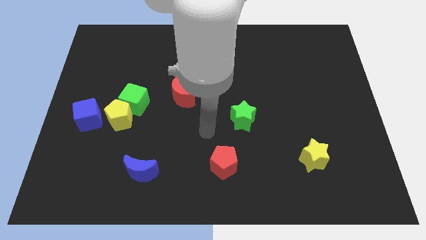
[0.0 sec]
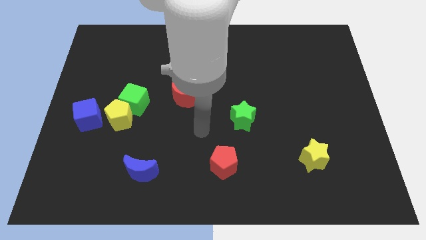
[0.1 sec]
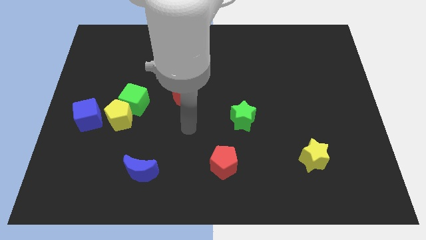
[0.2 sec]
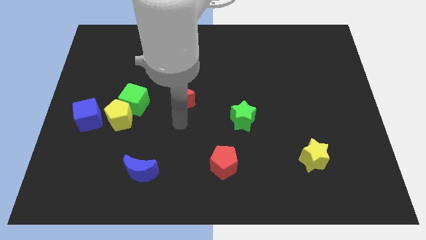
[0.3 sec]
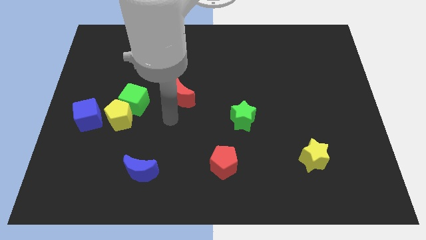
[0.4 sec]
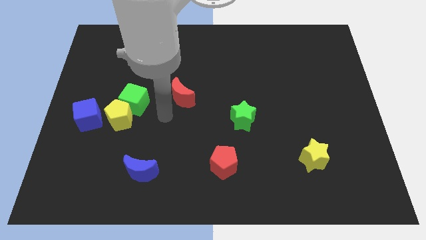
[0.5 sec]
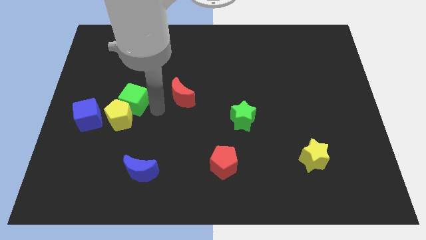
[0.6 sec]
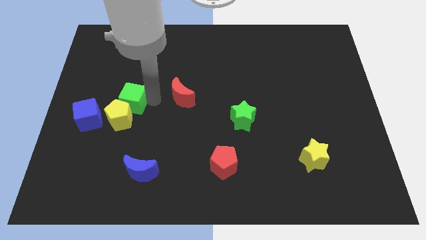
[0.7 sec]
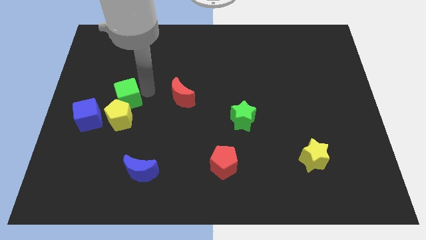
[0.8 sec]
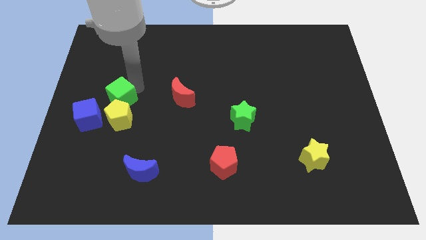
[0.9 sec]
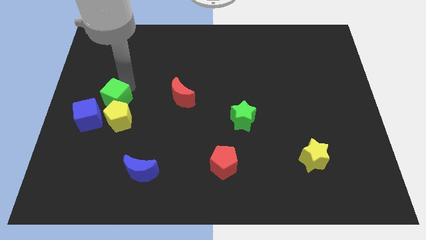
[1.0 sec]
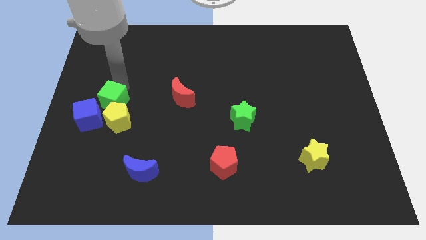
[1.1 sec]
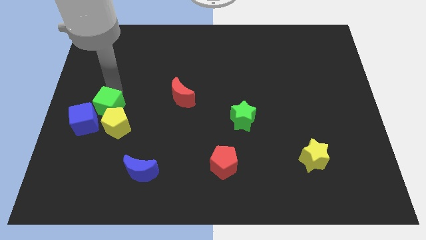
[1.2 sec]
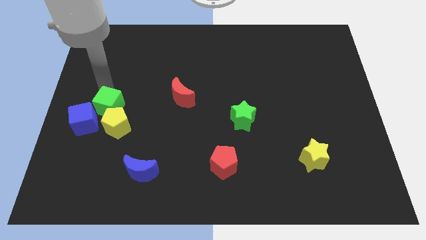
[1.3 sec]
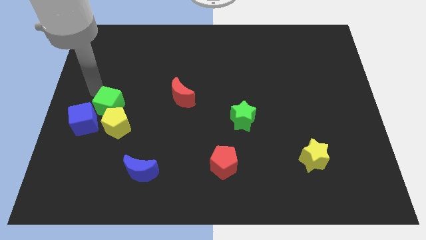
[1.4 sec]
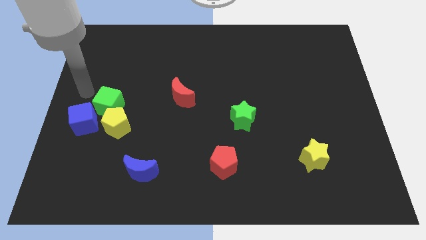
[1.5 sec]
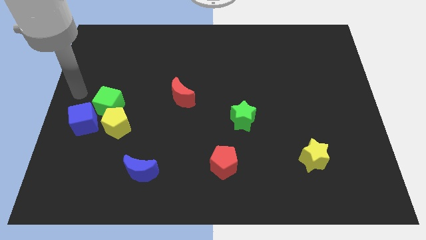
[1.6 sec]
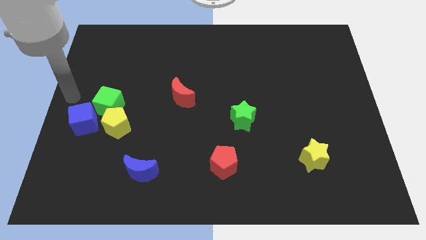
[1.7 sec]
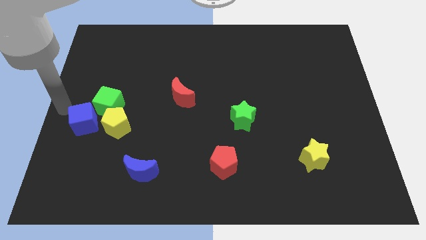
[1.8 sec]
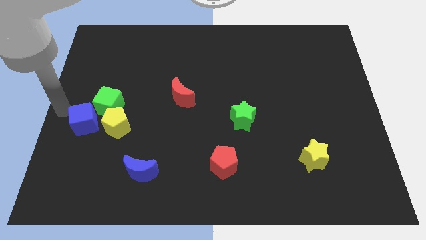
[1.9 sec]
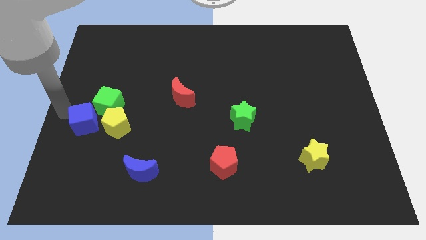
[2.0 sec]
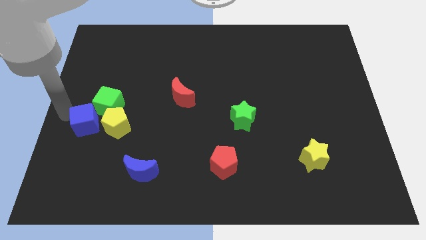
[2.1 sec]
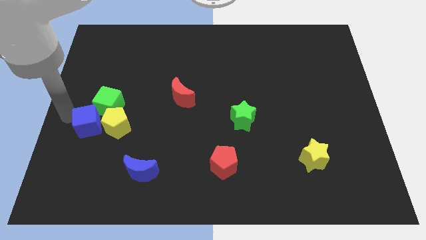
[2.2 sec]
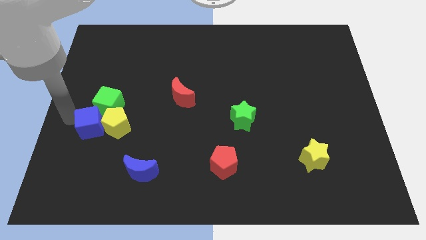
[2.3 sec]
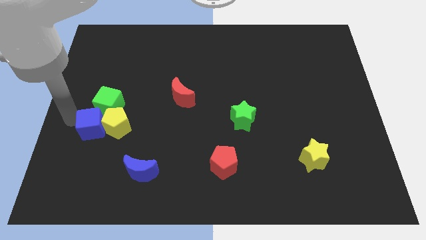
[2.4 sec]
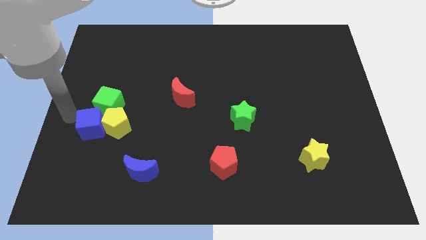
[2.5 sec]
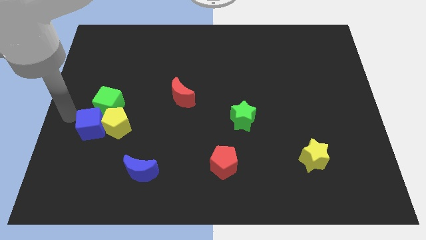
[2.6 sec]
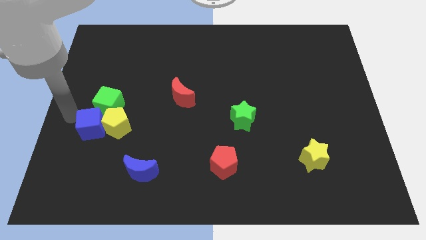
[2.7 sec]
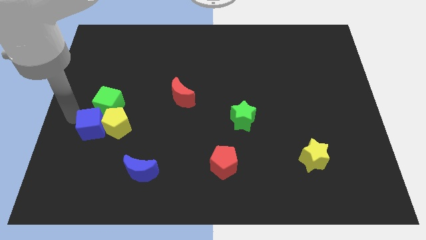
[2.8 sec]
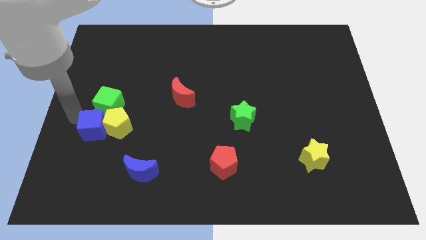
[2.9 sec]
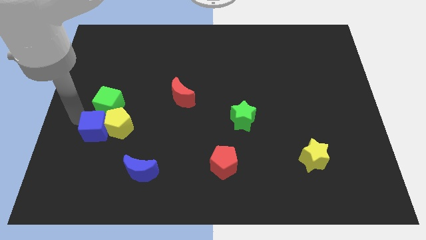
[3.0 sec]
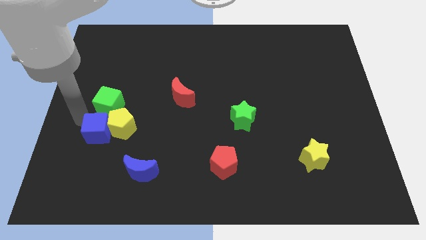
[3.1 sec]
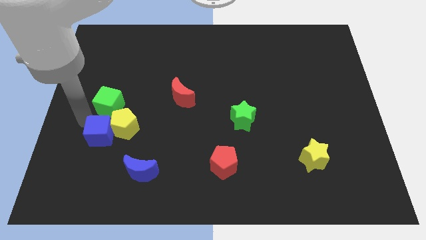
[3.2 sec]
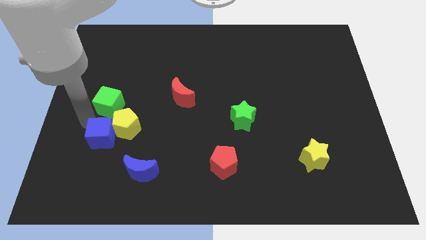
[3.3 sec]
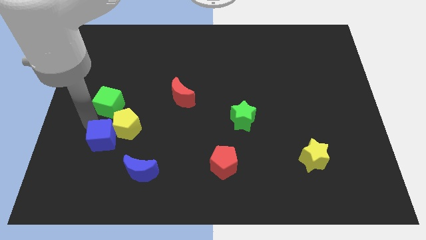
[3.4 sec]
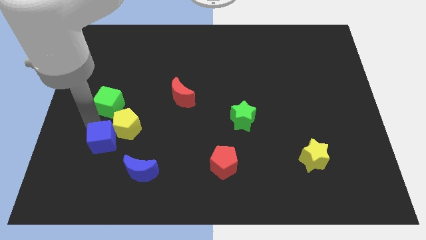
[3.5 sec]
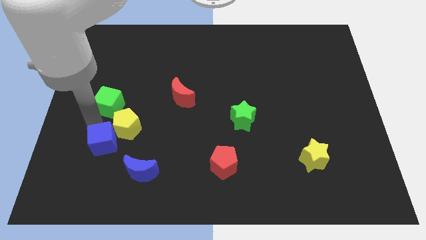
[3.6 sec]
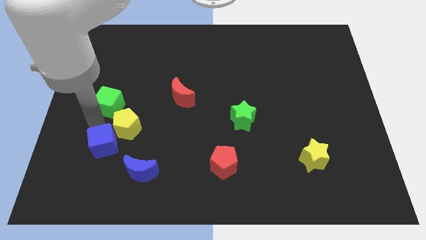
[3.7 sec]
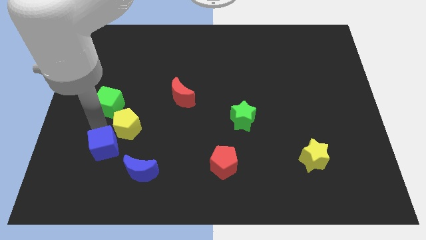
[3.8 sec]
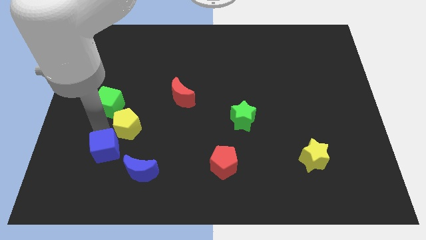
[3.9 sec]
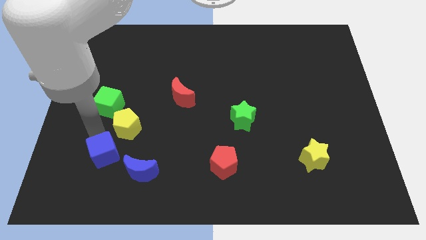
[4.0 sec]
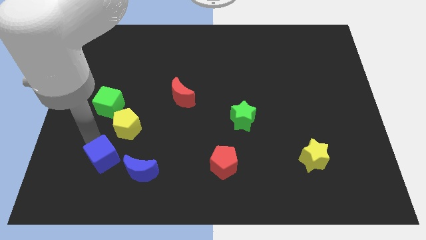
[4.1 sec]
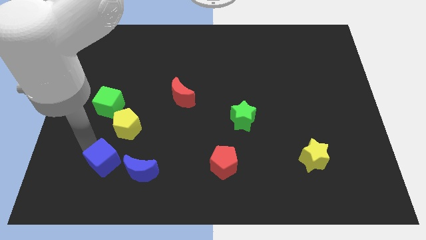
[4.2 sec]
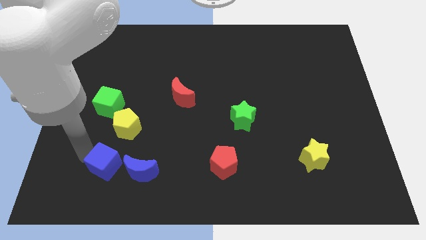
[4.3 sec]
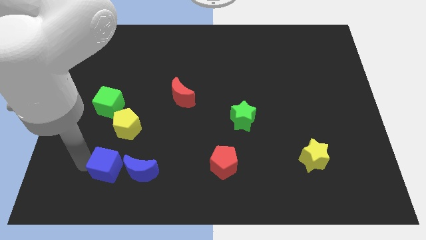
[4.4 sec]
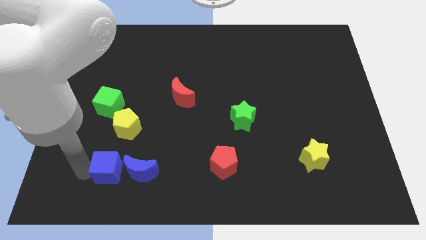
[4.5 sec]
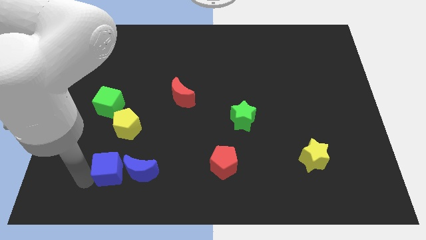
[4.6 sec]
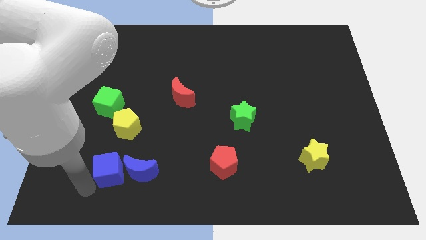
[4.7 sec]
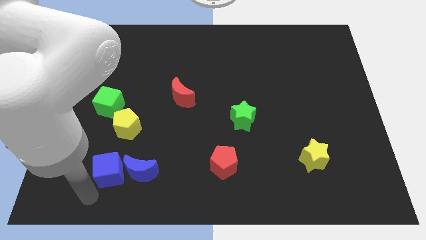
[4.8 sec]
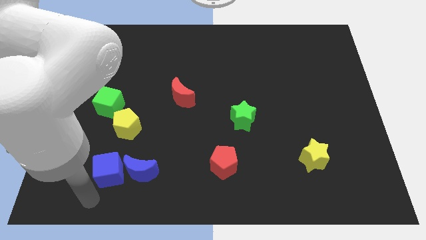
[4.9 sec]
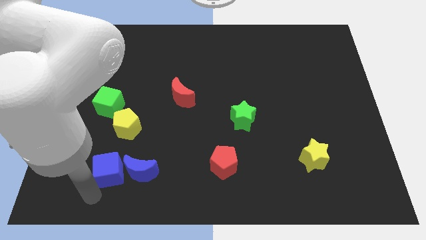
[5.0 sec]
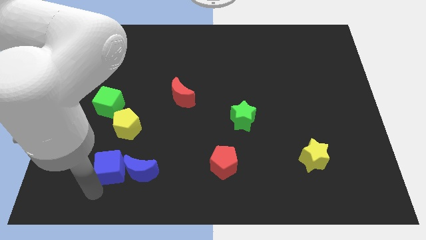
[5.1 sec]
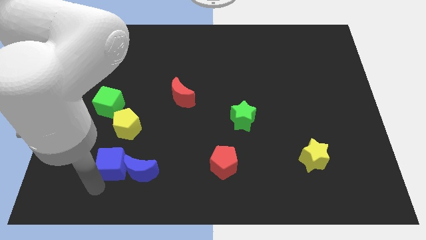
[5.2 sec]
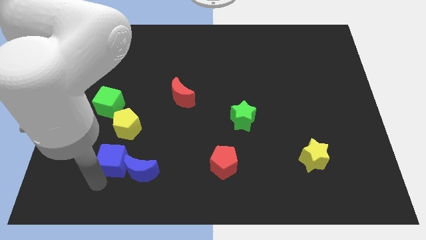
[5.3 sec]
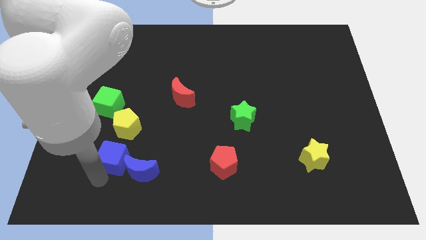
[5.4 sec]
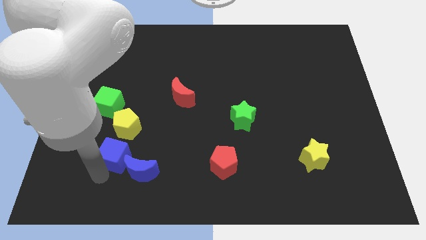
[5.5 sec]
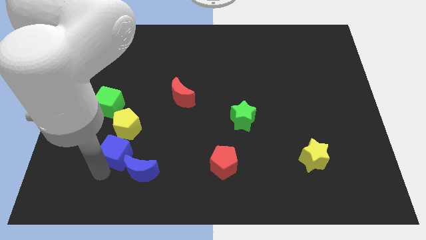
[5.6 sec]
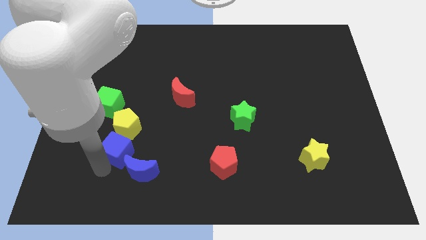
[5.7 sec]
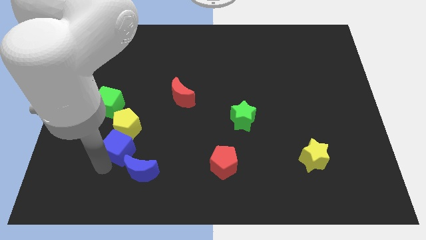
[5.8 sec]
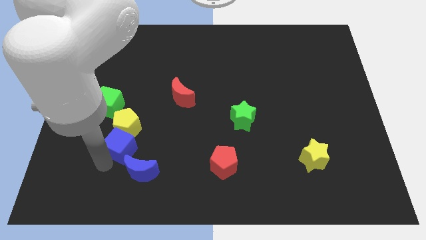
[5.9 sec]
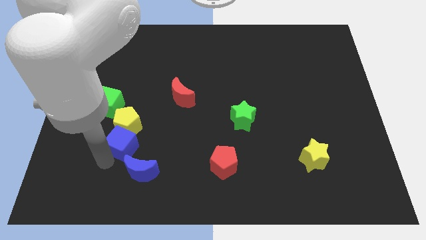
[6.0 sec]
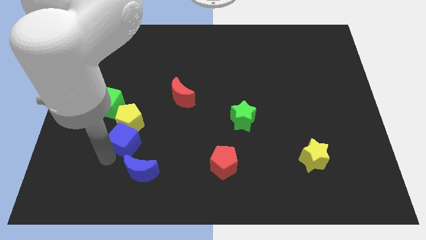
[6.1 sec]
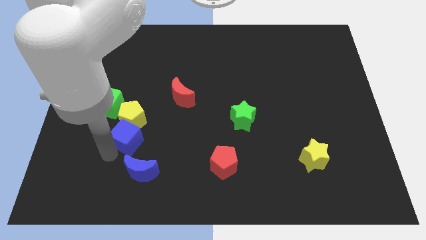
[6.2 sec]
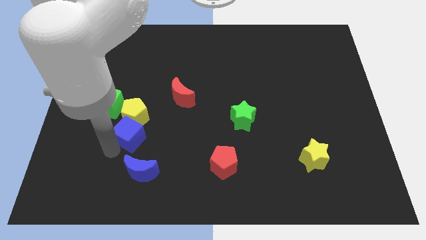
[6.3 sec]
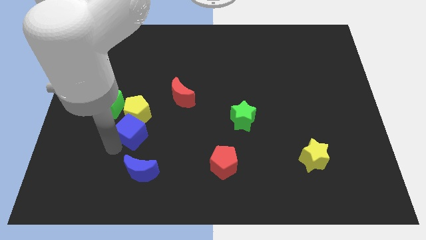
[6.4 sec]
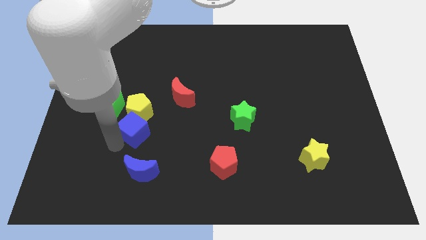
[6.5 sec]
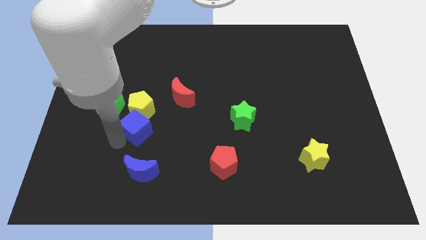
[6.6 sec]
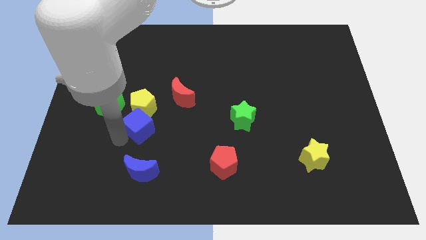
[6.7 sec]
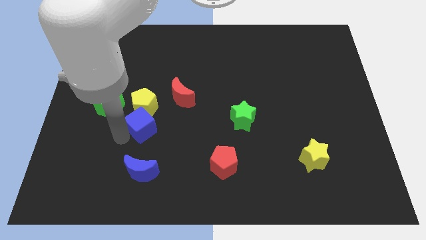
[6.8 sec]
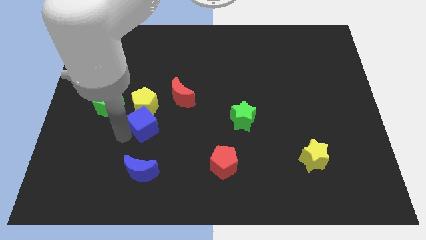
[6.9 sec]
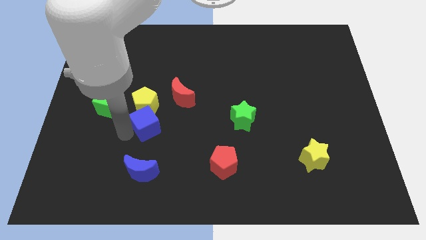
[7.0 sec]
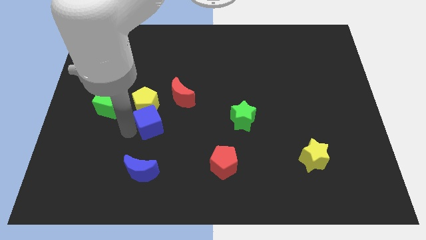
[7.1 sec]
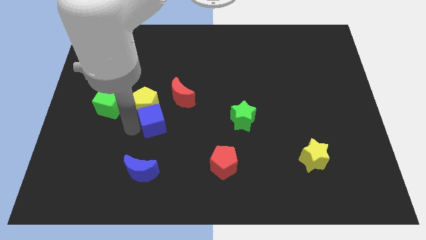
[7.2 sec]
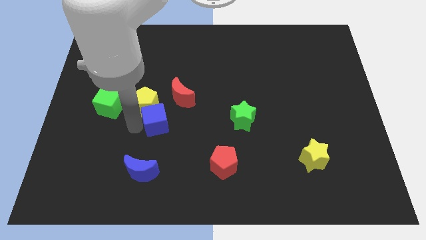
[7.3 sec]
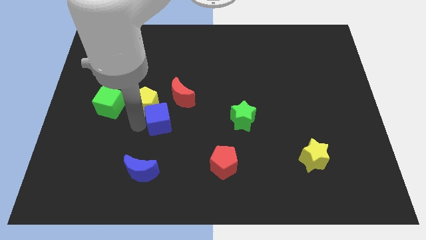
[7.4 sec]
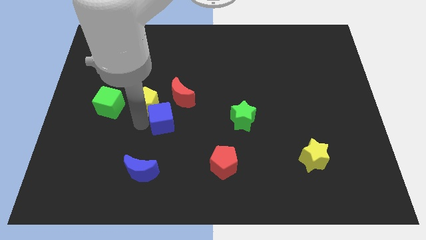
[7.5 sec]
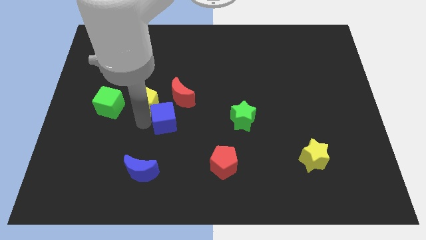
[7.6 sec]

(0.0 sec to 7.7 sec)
put the blue cube to the middle of the board
